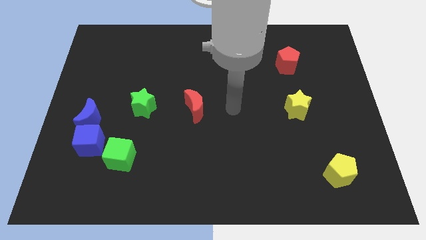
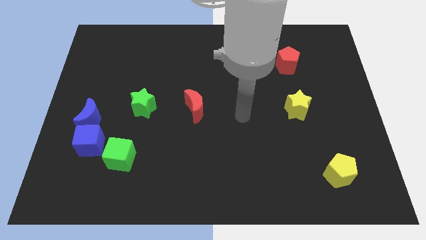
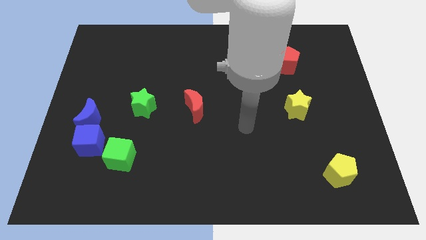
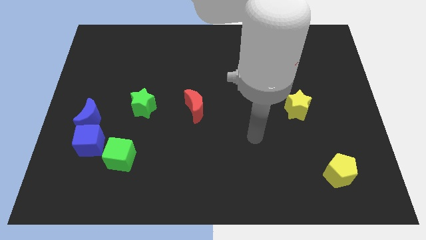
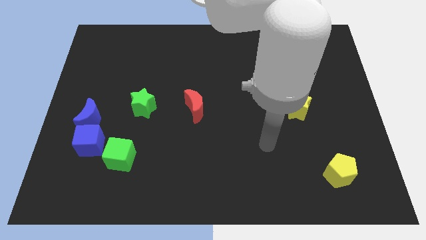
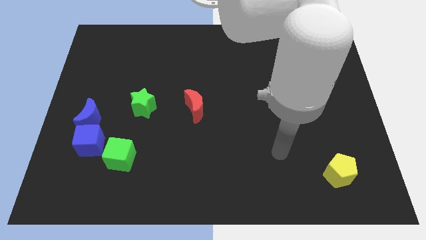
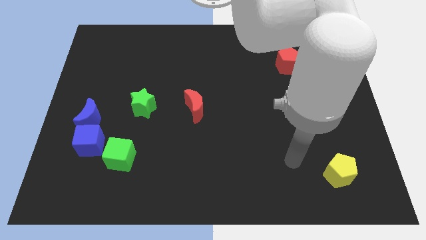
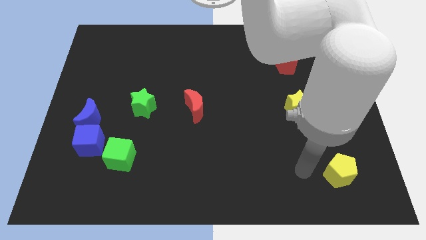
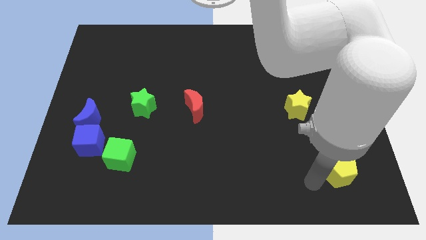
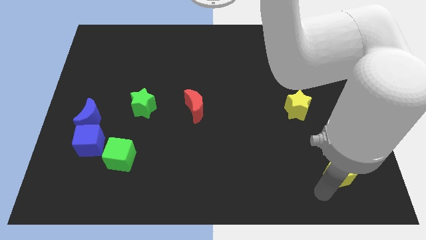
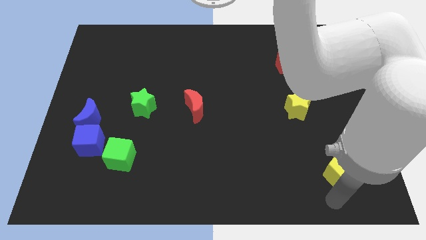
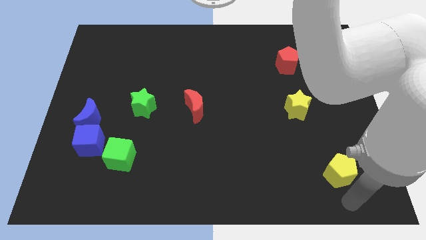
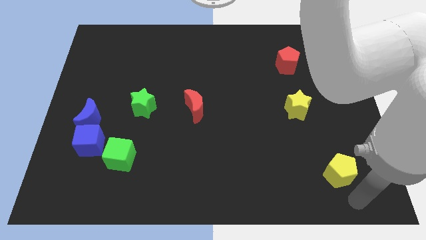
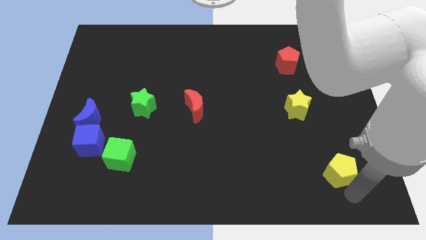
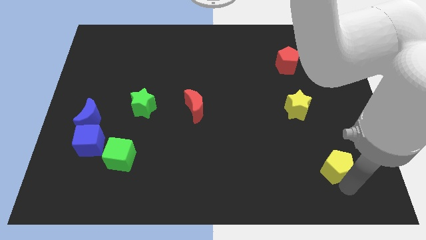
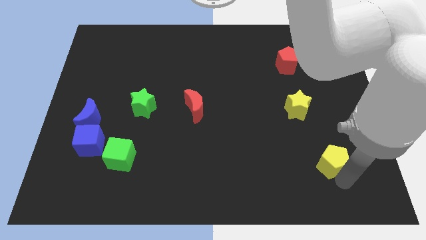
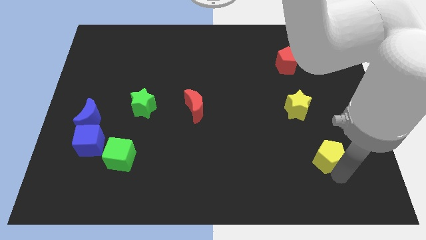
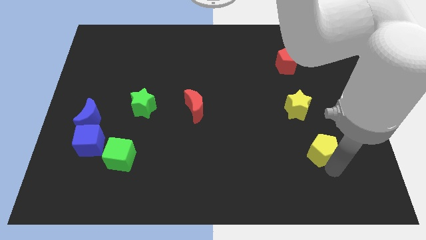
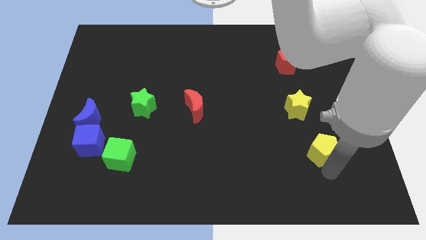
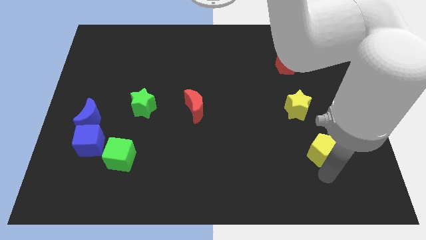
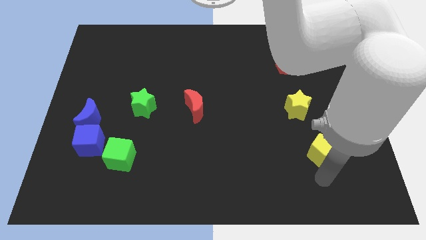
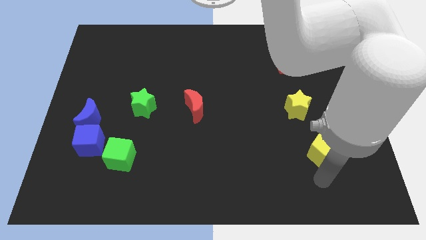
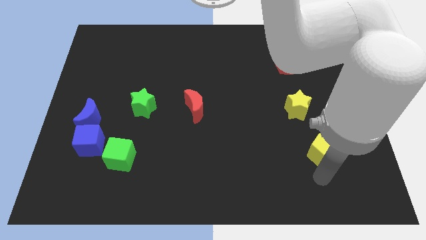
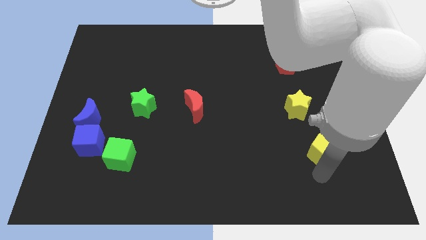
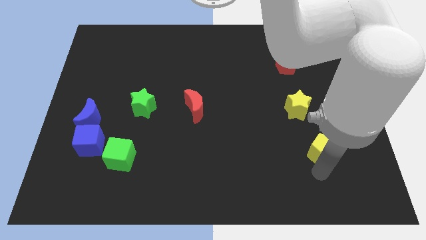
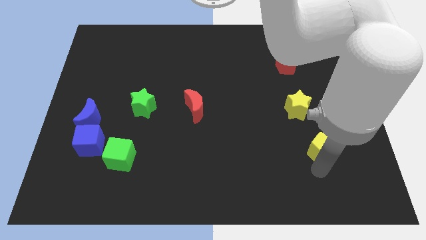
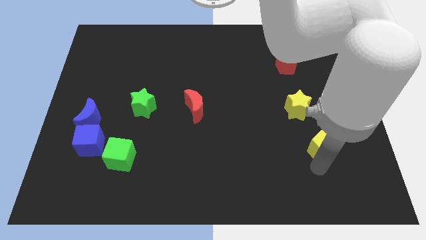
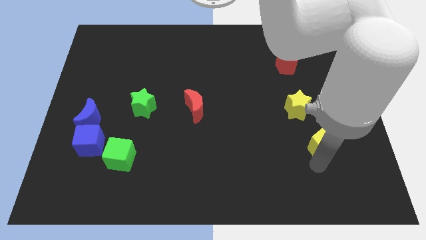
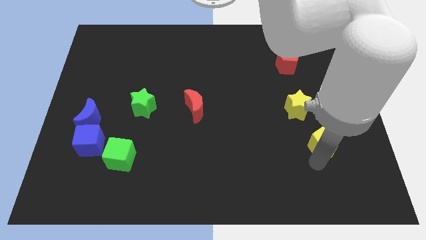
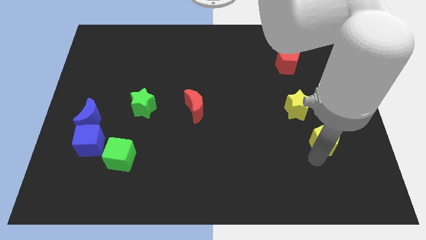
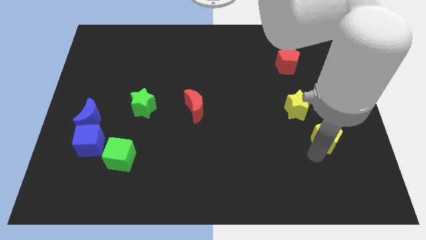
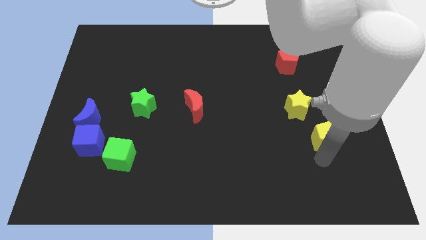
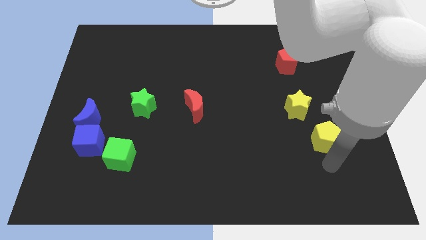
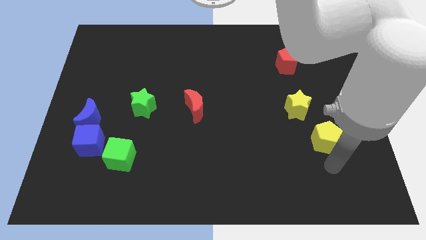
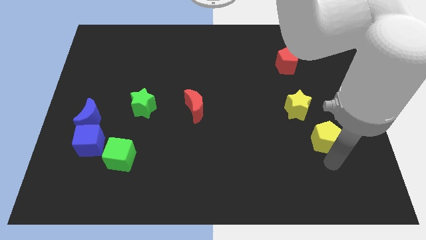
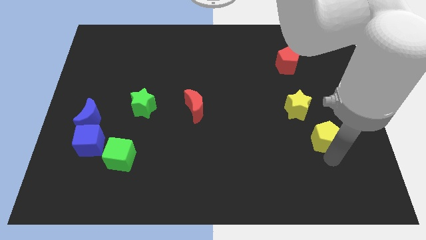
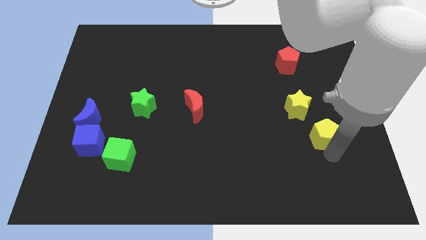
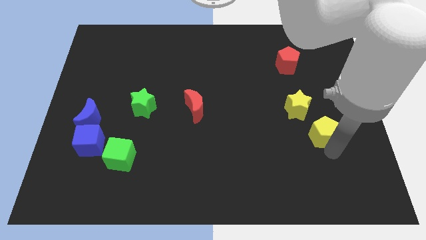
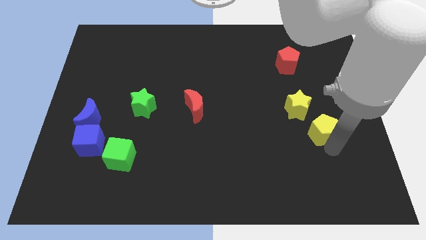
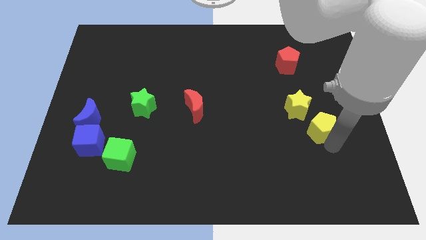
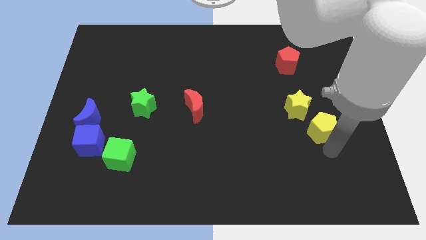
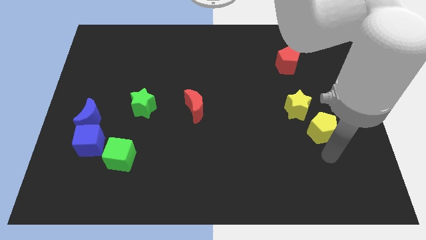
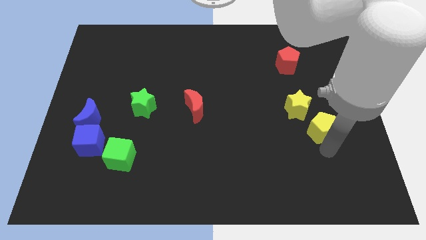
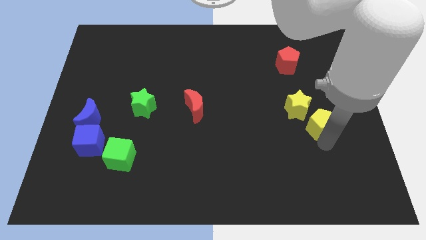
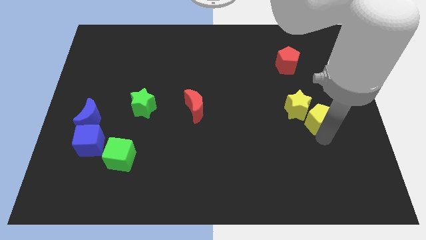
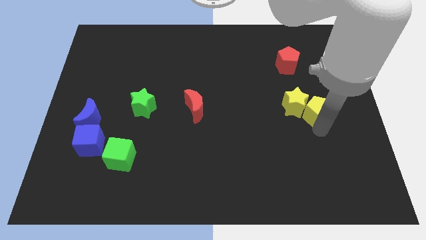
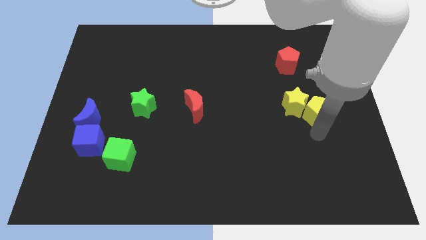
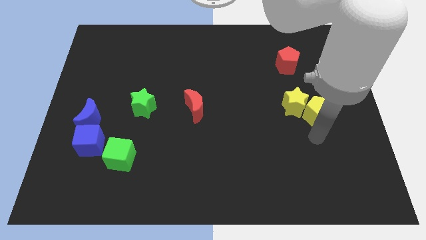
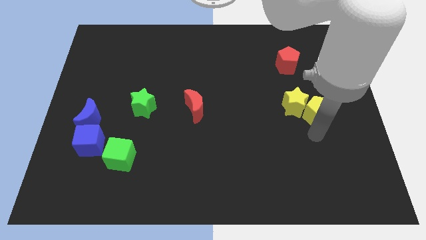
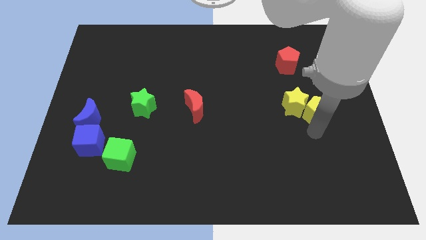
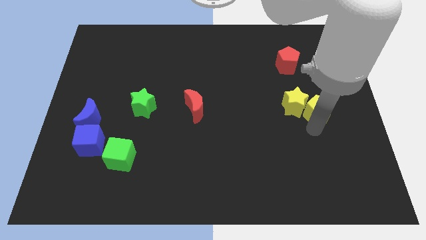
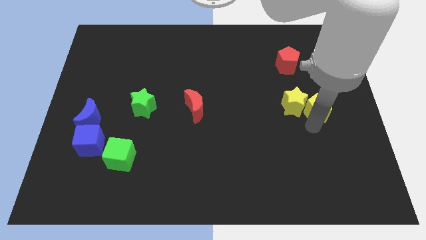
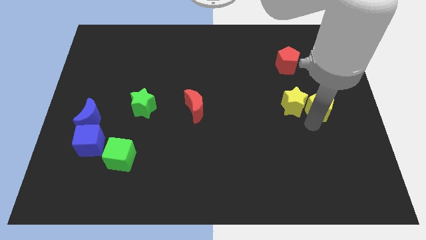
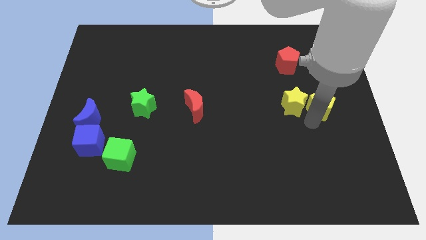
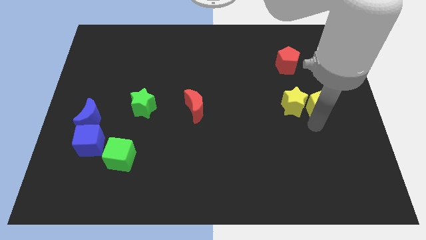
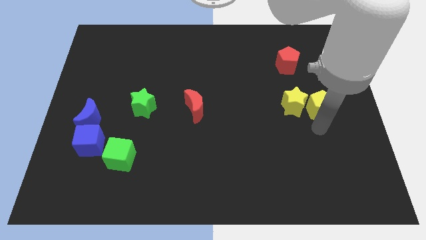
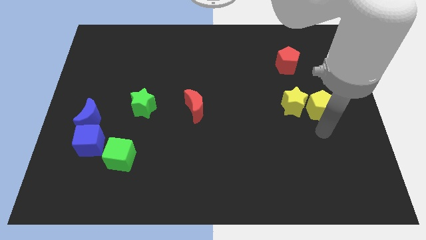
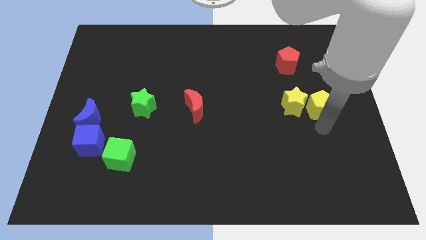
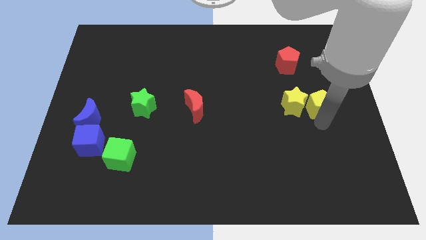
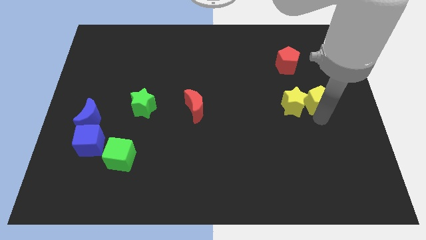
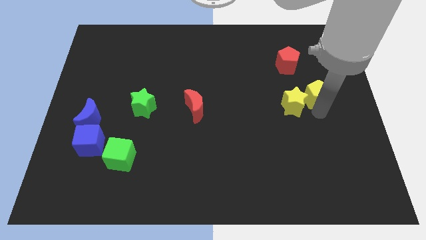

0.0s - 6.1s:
push the yellow pentagon upwards

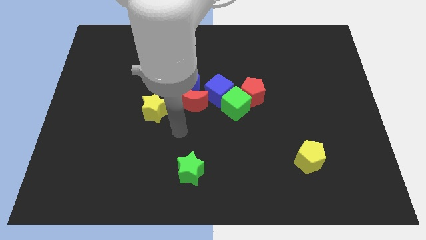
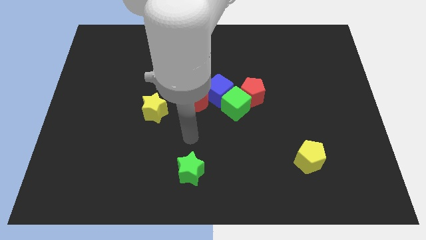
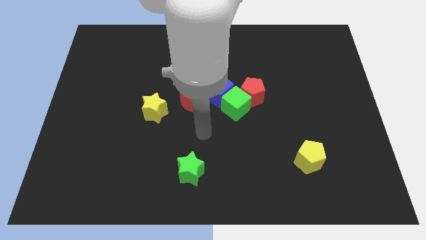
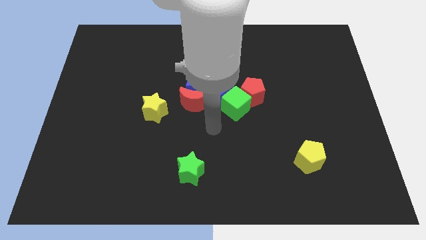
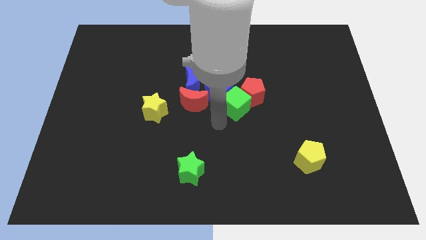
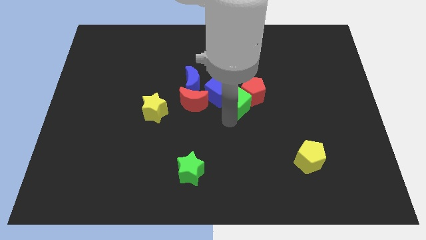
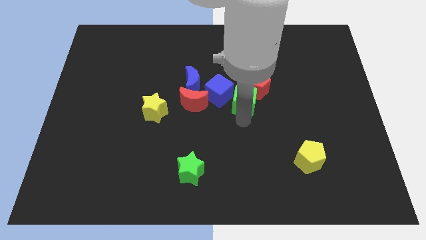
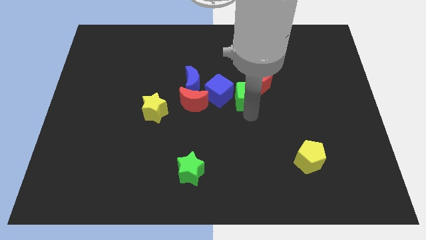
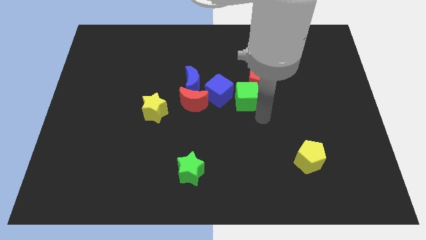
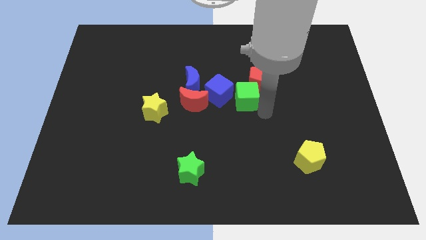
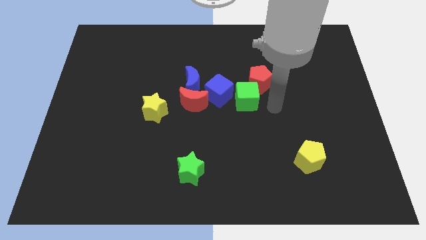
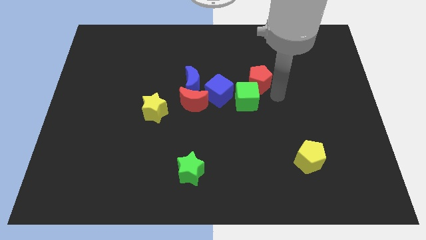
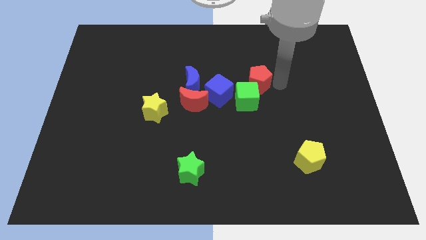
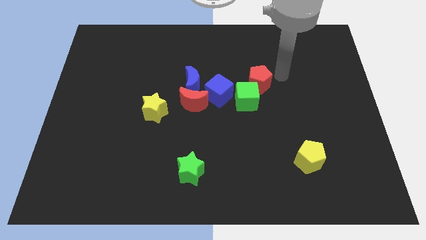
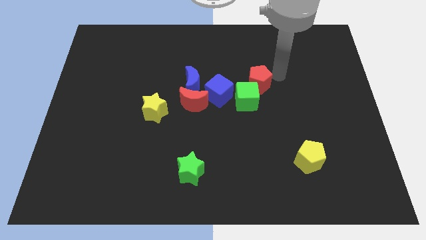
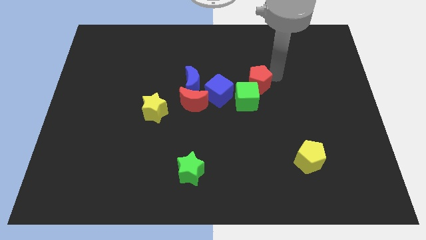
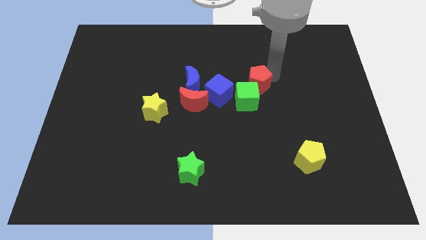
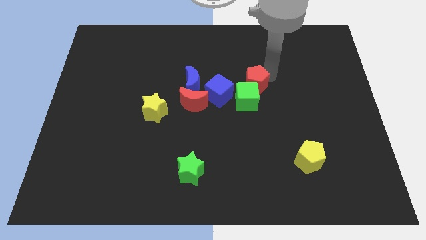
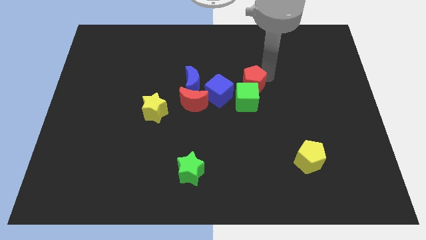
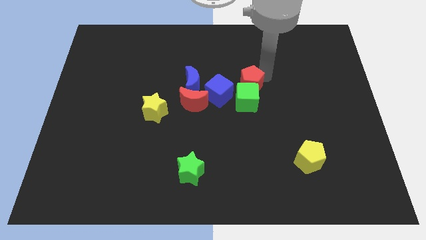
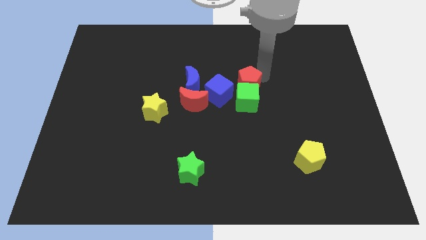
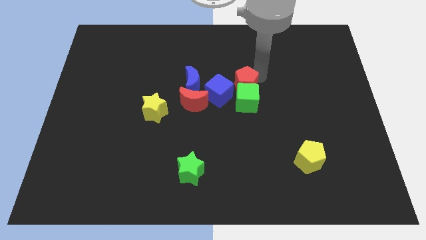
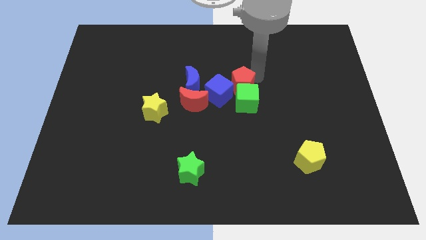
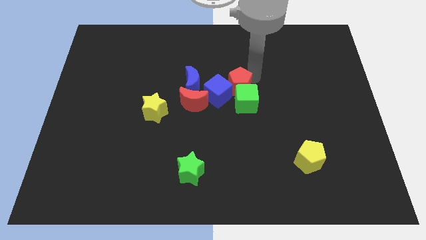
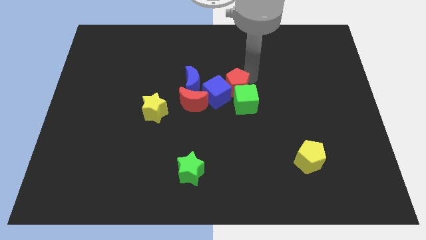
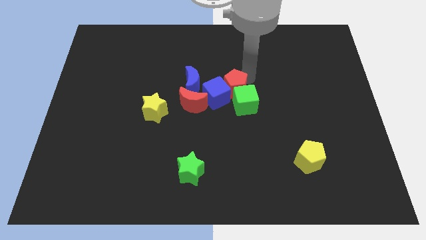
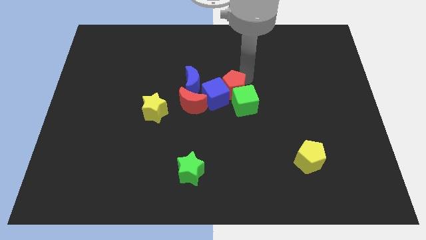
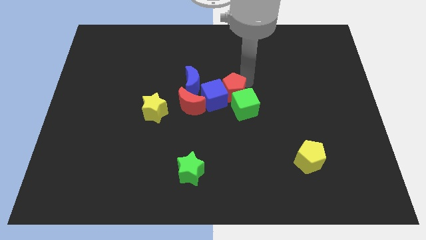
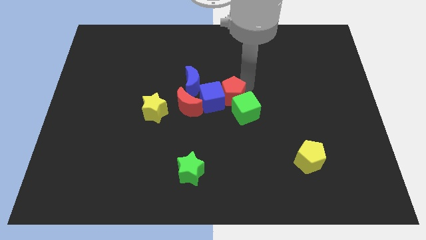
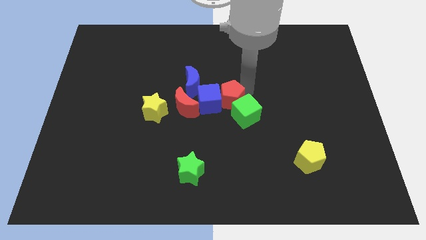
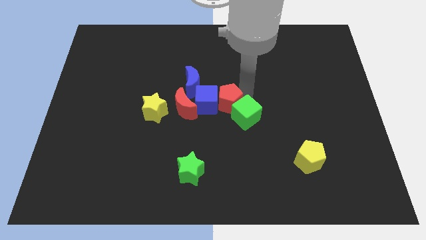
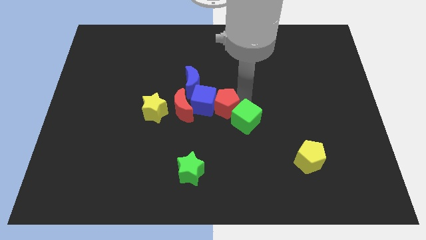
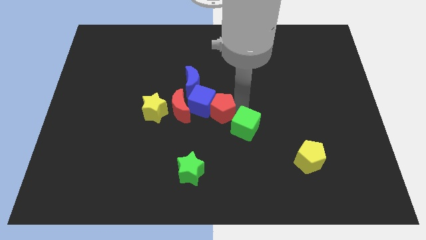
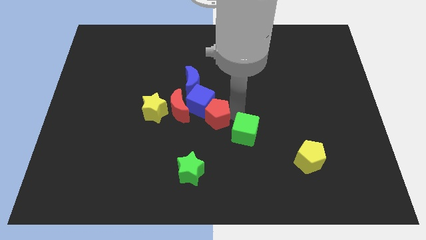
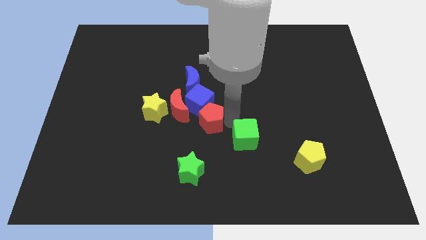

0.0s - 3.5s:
slightly move the red pentagon left
